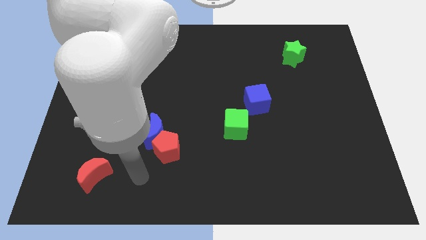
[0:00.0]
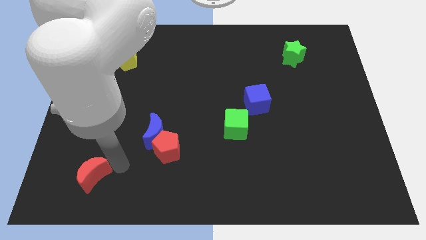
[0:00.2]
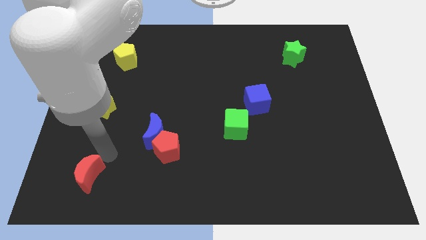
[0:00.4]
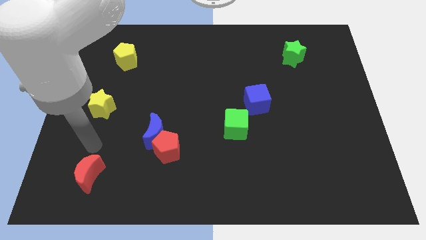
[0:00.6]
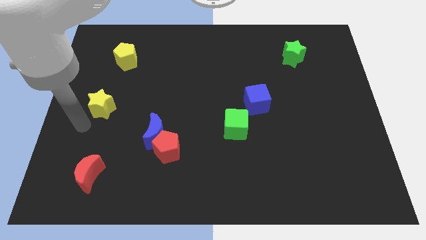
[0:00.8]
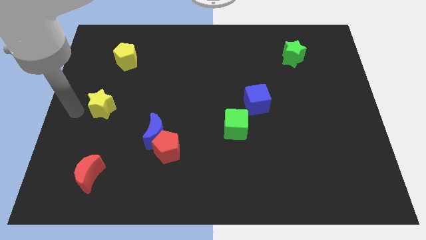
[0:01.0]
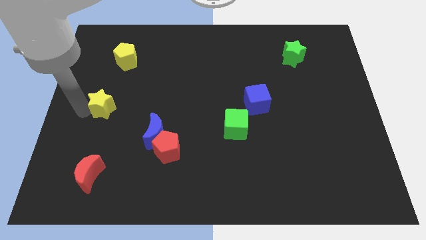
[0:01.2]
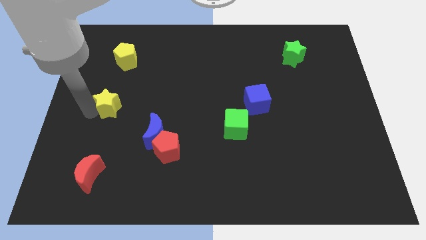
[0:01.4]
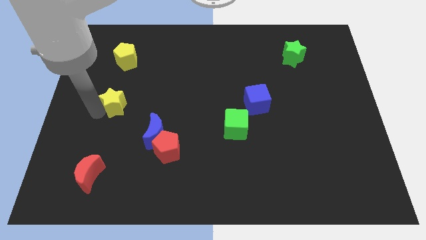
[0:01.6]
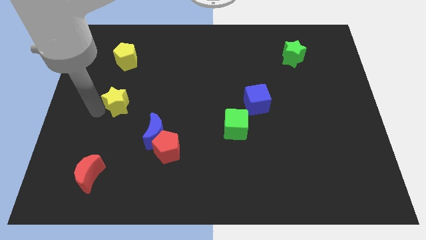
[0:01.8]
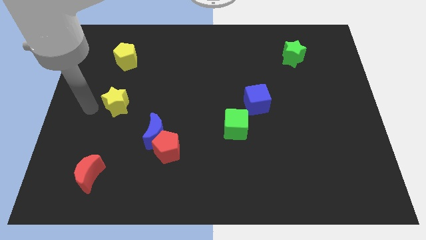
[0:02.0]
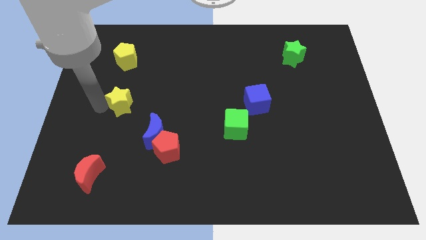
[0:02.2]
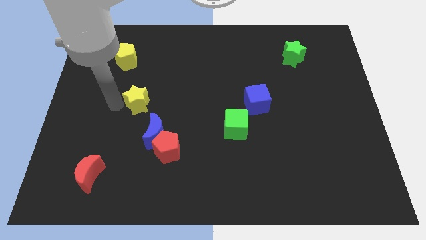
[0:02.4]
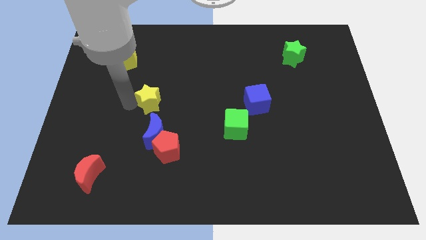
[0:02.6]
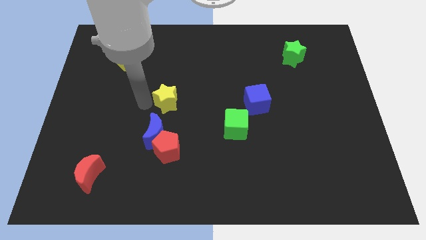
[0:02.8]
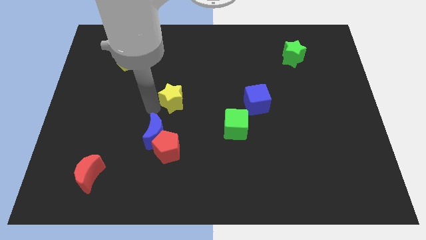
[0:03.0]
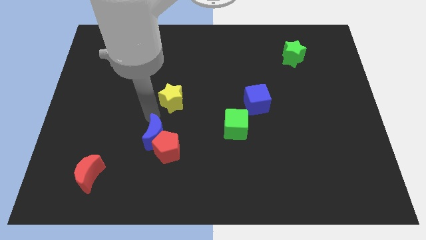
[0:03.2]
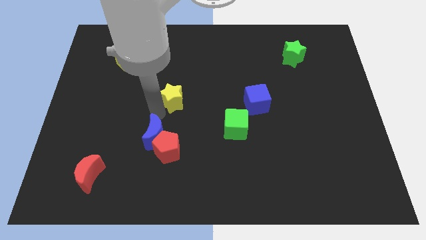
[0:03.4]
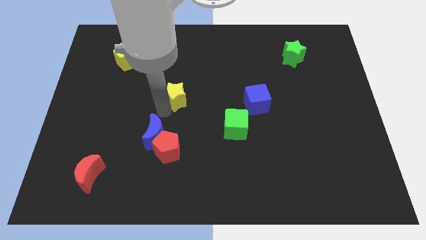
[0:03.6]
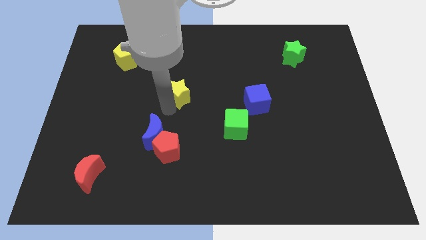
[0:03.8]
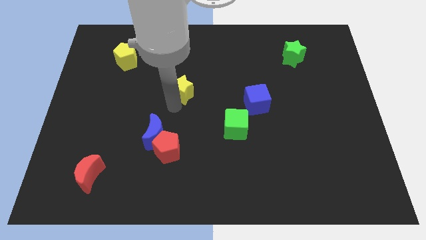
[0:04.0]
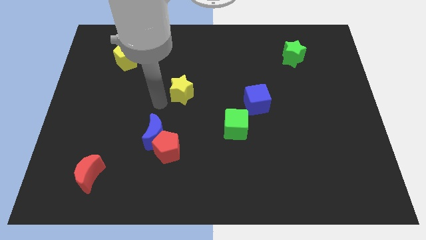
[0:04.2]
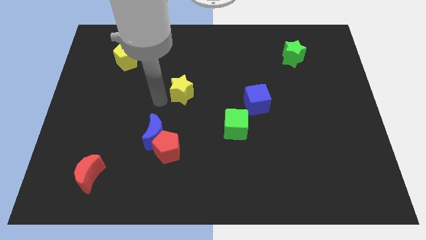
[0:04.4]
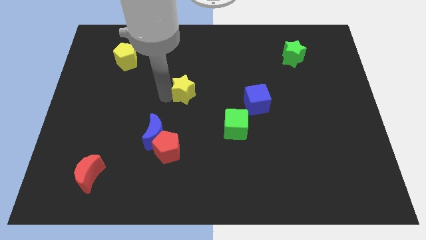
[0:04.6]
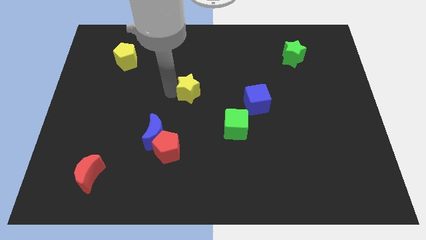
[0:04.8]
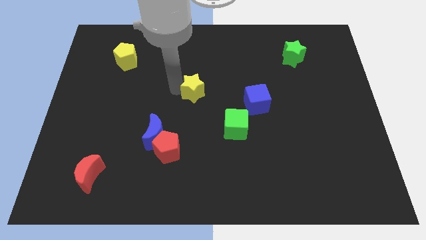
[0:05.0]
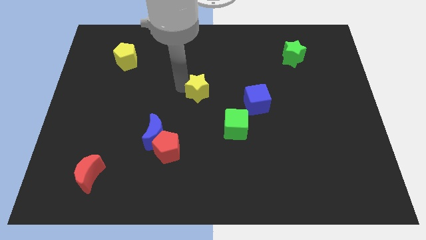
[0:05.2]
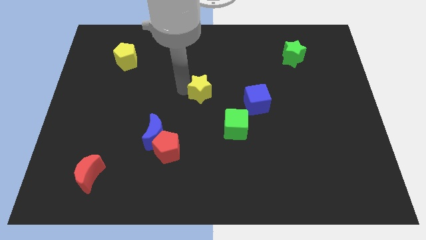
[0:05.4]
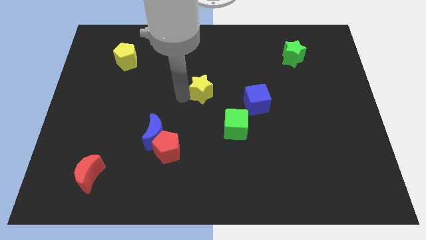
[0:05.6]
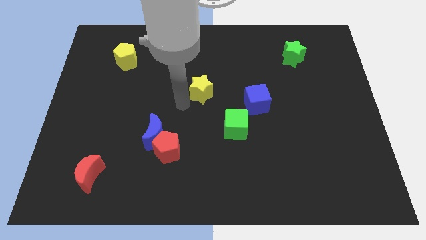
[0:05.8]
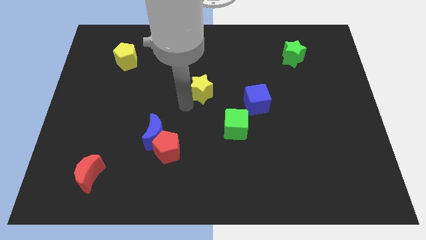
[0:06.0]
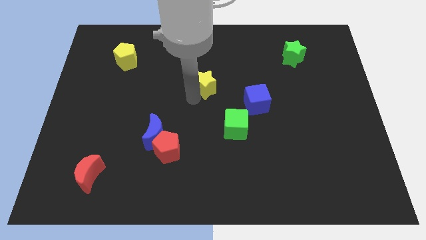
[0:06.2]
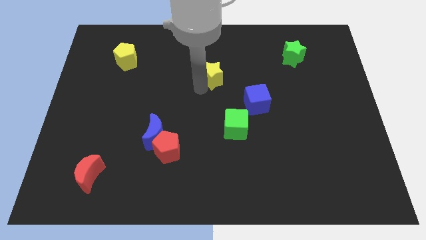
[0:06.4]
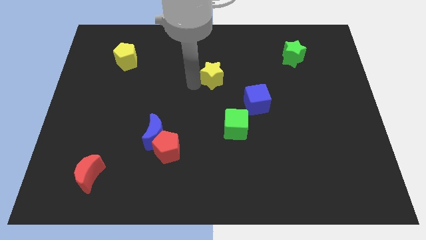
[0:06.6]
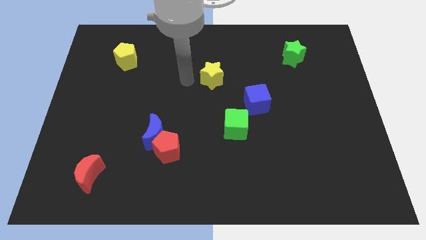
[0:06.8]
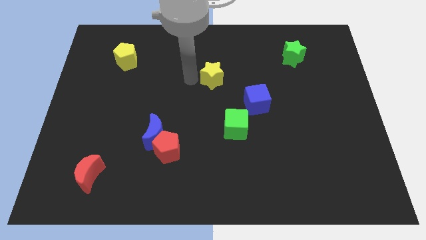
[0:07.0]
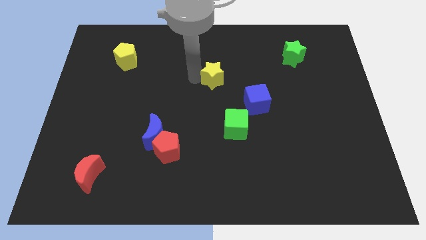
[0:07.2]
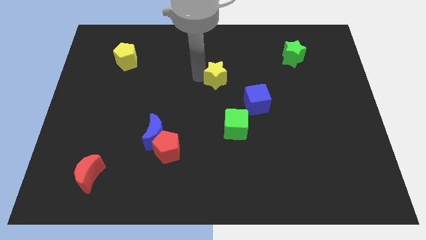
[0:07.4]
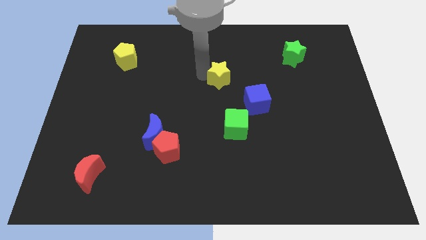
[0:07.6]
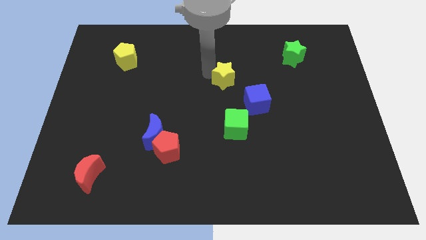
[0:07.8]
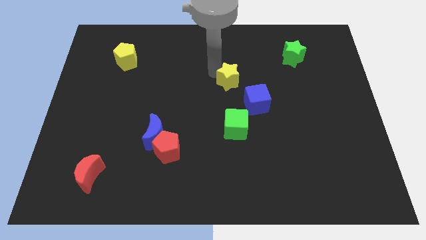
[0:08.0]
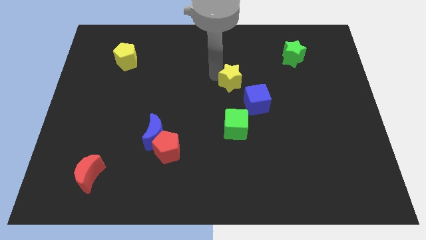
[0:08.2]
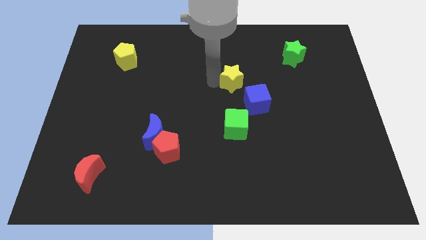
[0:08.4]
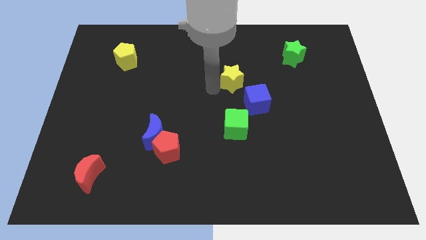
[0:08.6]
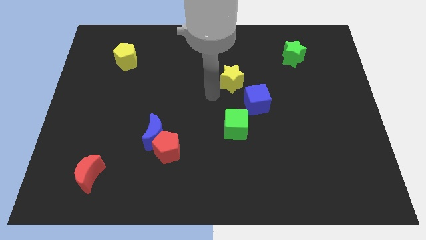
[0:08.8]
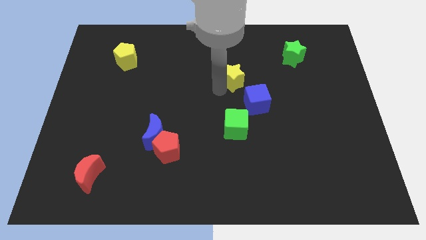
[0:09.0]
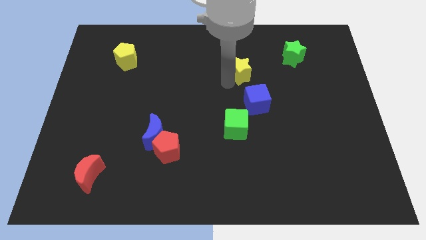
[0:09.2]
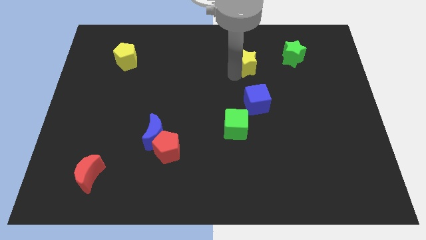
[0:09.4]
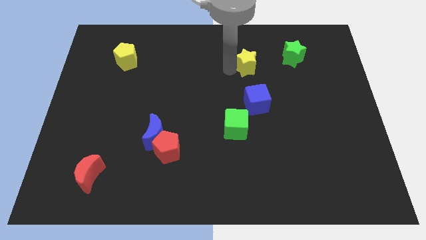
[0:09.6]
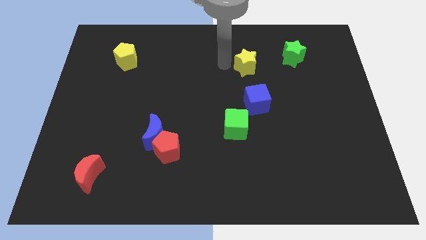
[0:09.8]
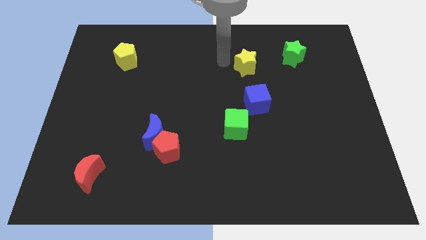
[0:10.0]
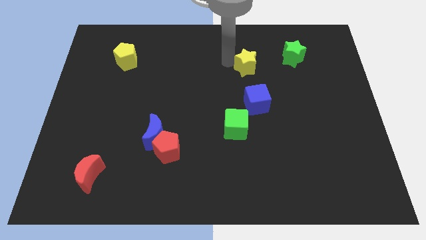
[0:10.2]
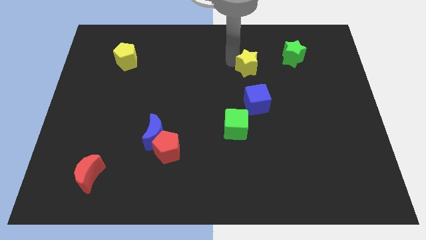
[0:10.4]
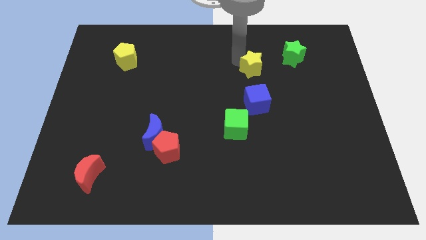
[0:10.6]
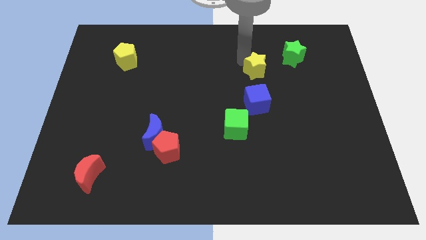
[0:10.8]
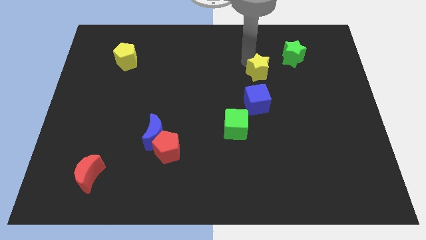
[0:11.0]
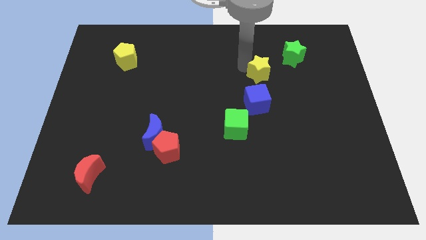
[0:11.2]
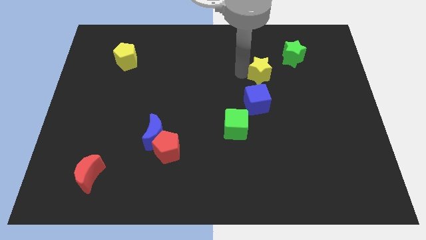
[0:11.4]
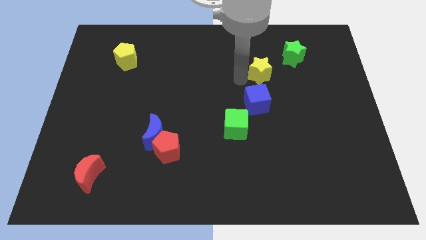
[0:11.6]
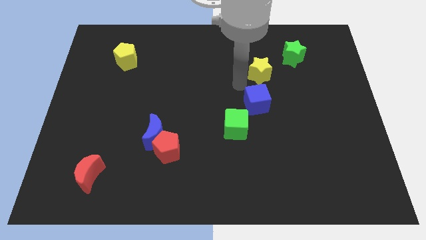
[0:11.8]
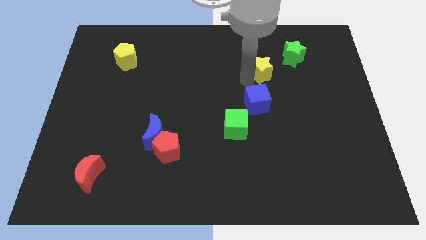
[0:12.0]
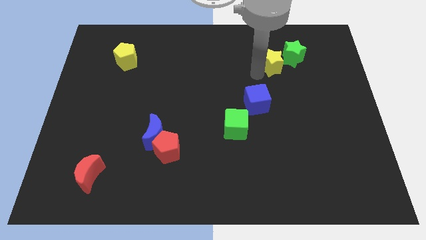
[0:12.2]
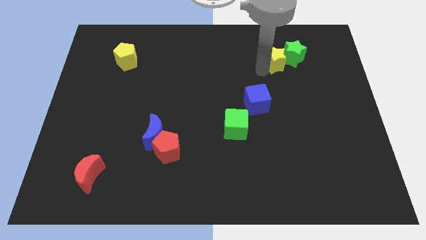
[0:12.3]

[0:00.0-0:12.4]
move the yellow star to the green star
